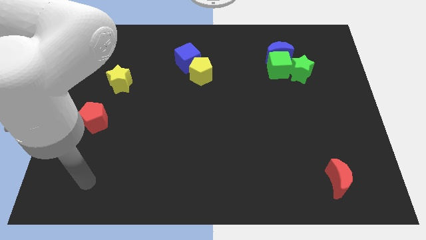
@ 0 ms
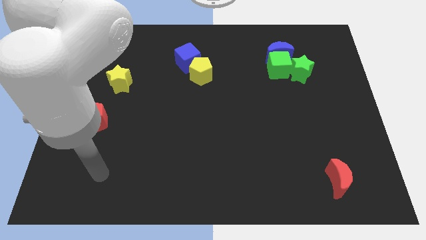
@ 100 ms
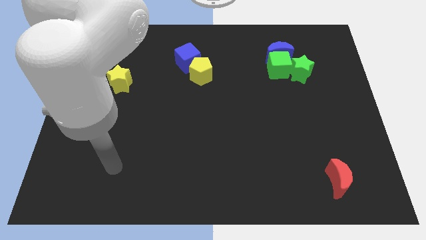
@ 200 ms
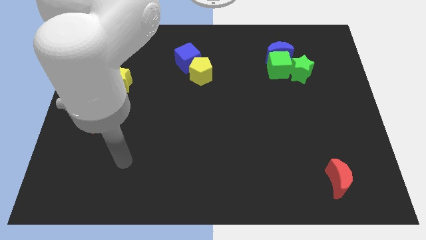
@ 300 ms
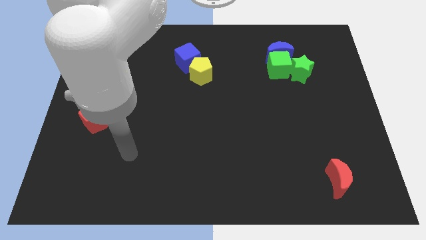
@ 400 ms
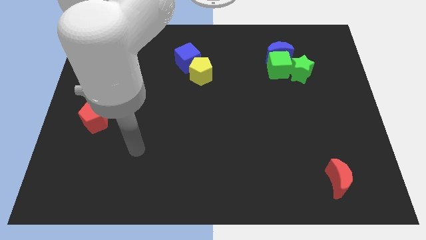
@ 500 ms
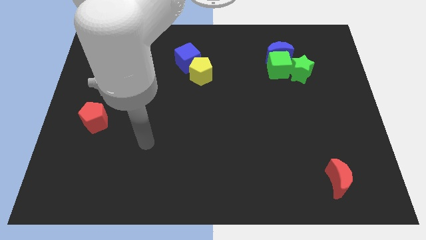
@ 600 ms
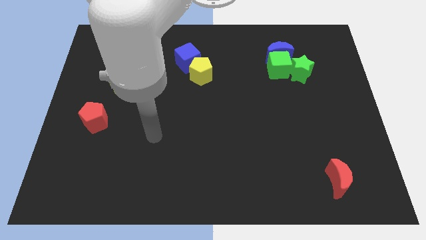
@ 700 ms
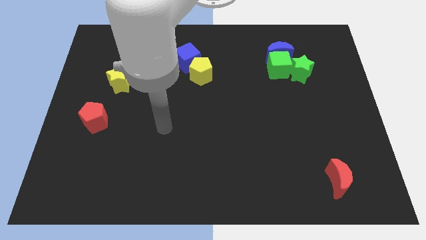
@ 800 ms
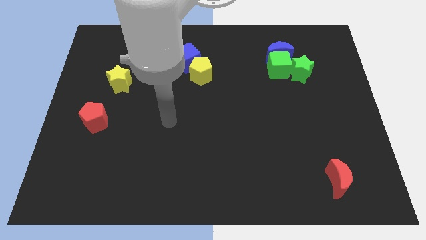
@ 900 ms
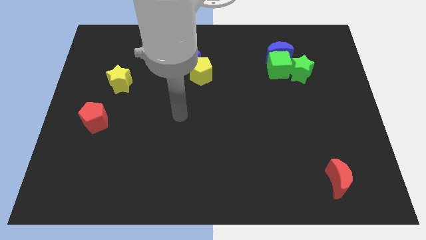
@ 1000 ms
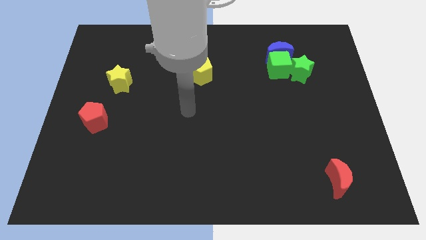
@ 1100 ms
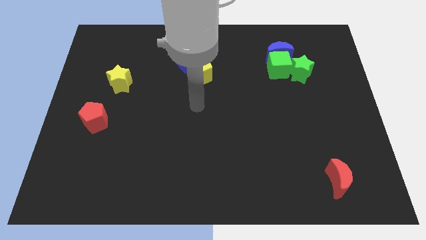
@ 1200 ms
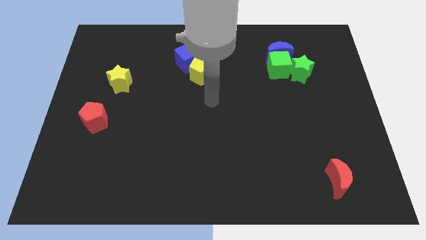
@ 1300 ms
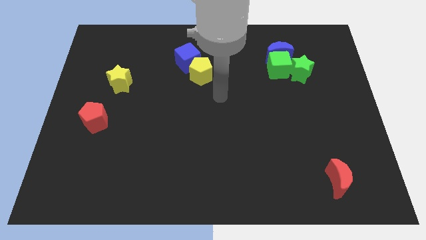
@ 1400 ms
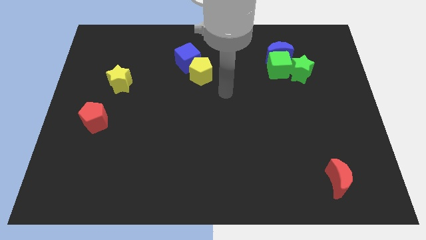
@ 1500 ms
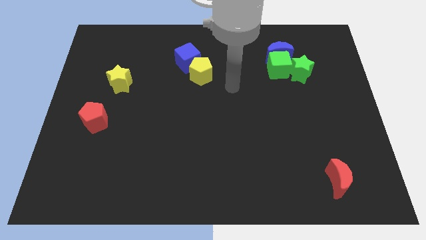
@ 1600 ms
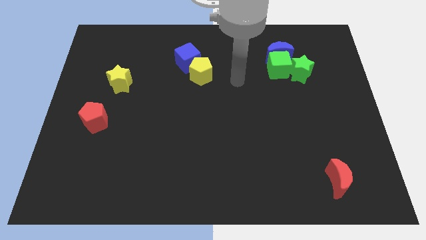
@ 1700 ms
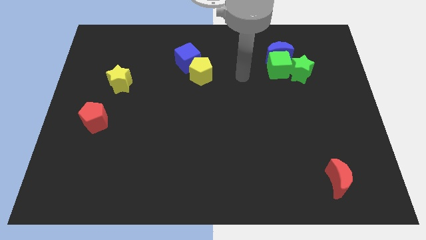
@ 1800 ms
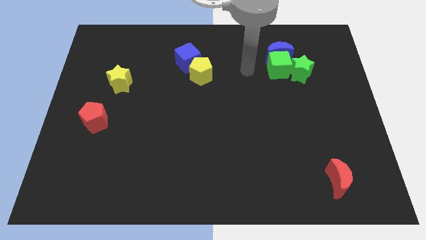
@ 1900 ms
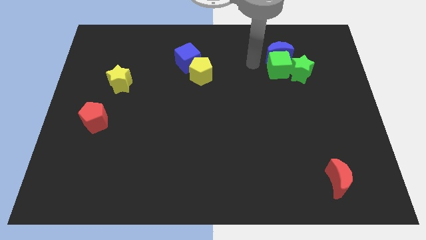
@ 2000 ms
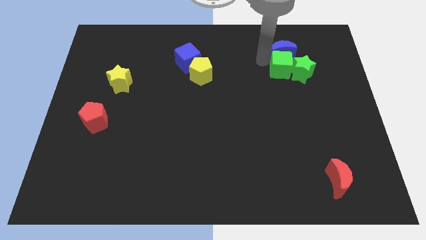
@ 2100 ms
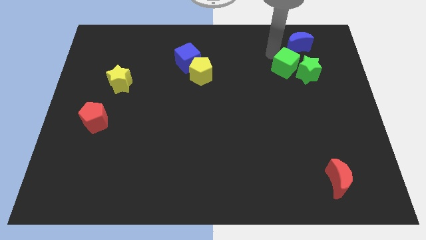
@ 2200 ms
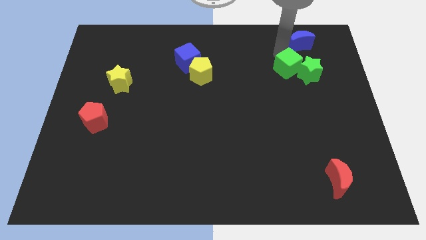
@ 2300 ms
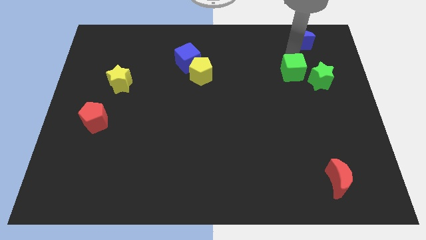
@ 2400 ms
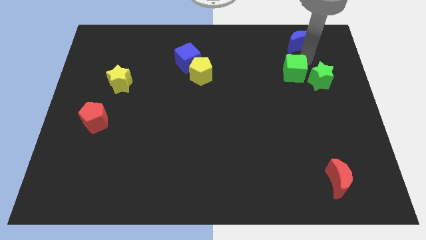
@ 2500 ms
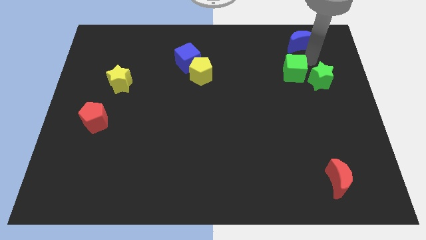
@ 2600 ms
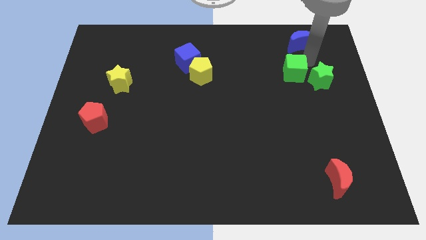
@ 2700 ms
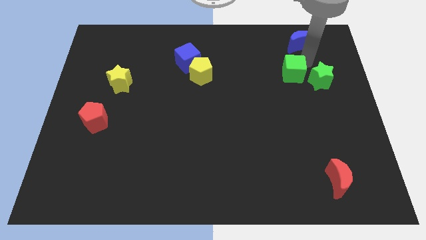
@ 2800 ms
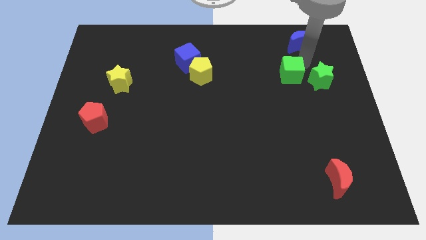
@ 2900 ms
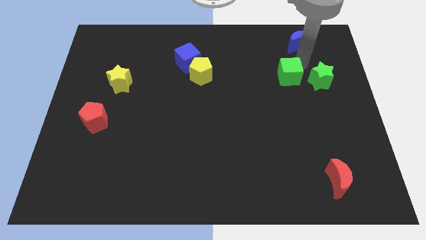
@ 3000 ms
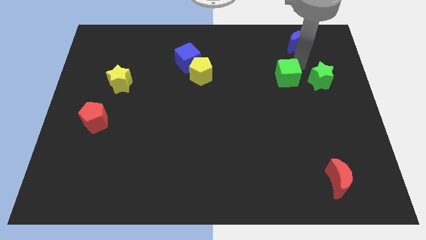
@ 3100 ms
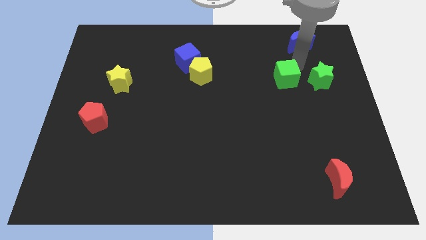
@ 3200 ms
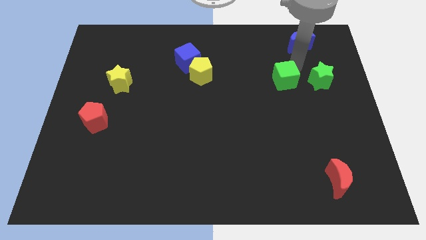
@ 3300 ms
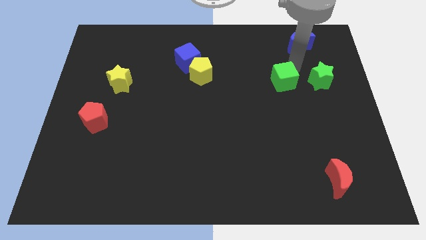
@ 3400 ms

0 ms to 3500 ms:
pull the green cube apart from the blue moon and green star

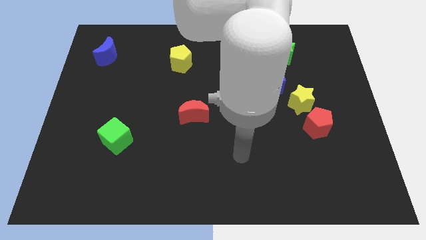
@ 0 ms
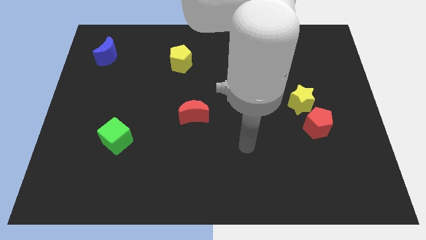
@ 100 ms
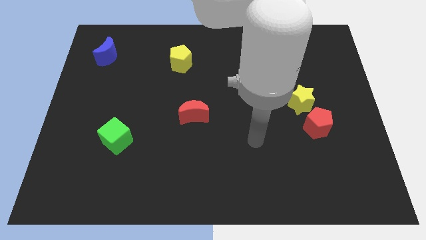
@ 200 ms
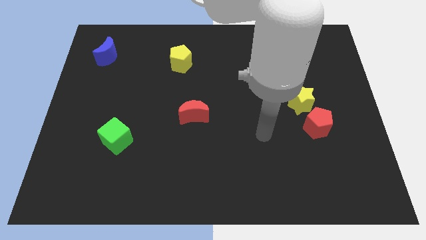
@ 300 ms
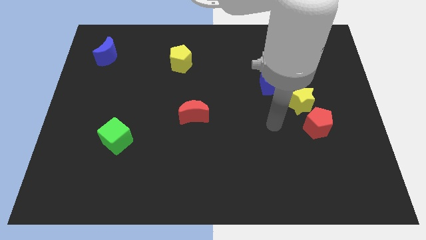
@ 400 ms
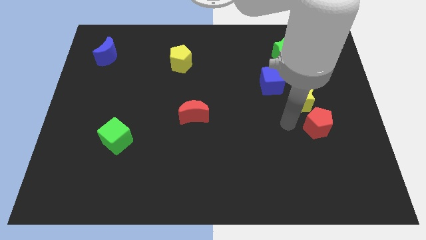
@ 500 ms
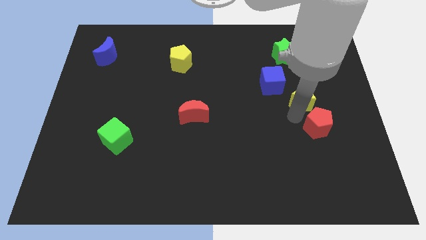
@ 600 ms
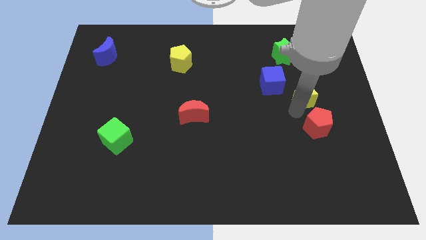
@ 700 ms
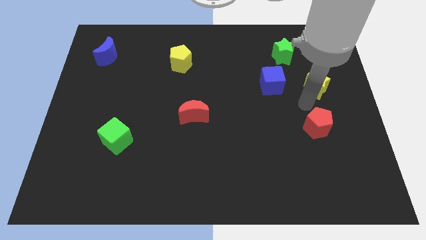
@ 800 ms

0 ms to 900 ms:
move the red pentagon away from the yellow star

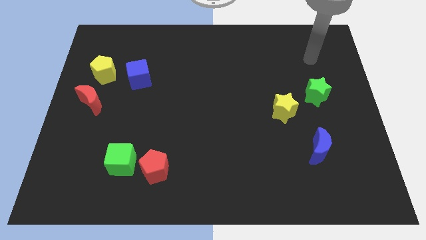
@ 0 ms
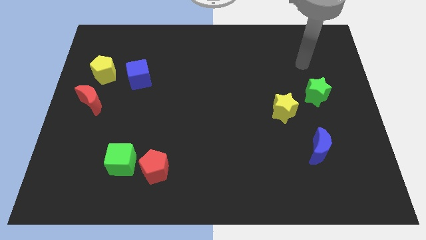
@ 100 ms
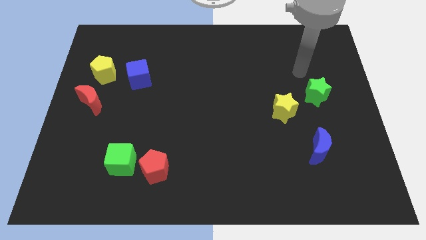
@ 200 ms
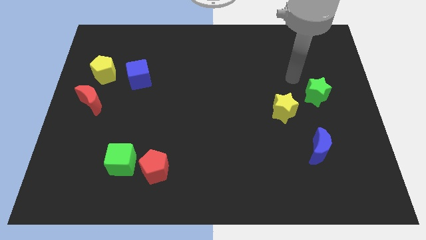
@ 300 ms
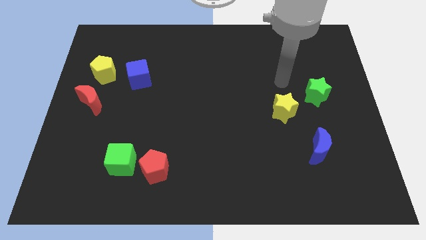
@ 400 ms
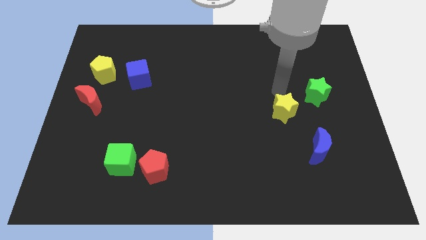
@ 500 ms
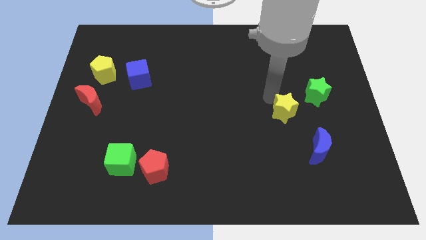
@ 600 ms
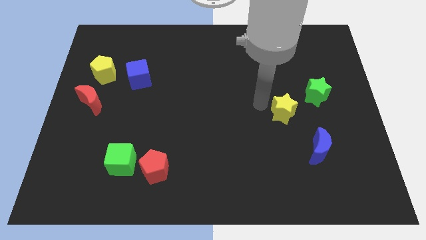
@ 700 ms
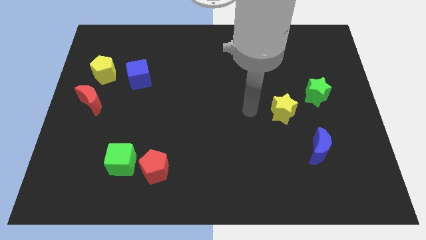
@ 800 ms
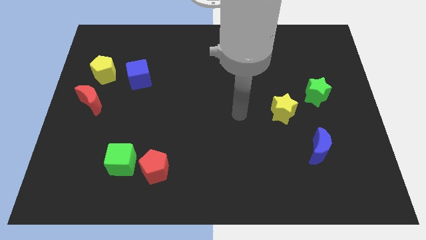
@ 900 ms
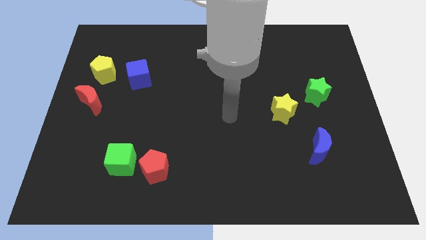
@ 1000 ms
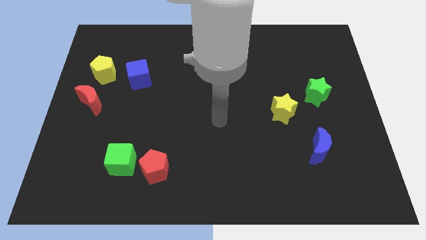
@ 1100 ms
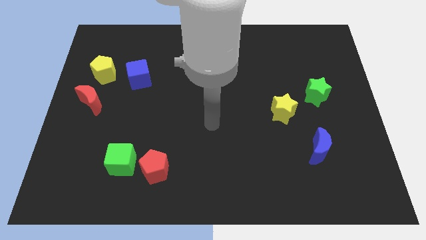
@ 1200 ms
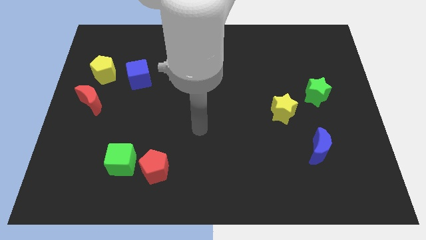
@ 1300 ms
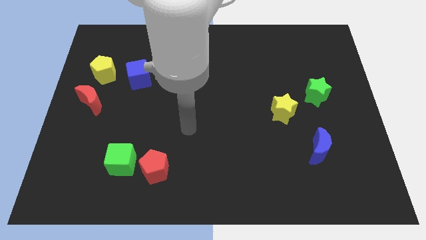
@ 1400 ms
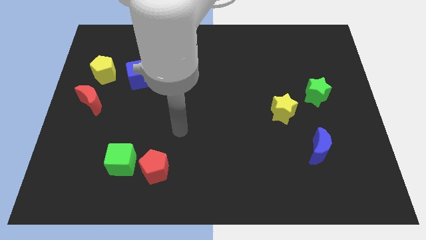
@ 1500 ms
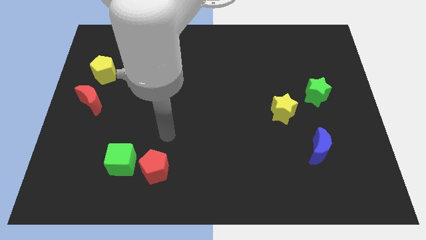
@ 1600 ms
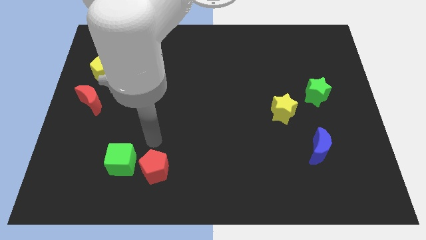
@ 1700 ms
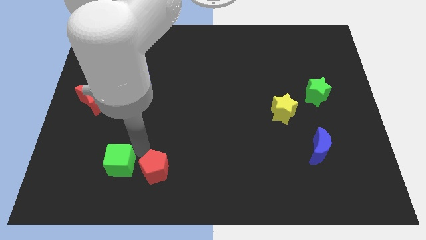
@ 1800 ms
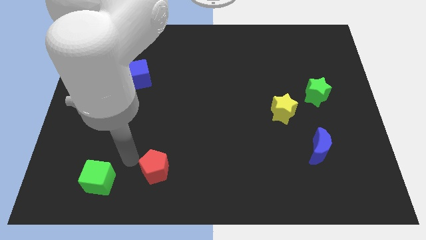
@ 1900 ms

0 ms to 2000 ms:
move the red pentagon away from the green cube

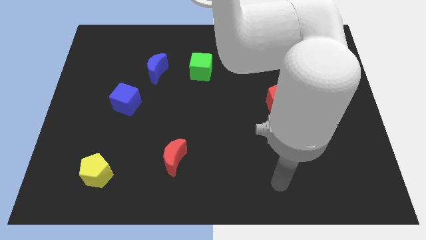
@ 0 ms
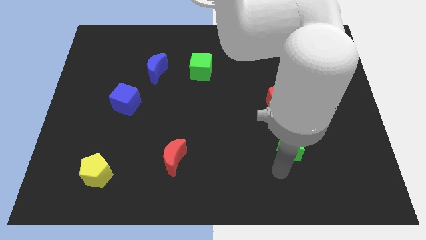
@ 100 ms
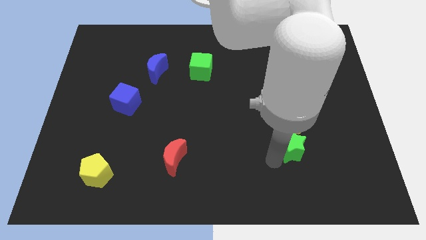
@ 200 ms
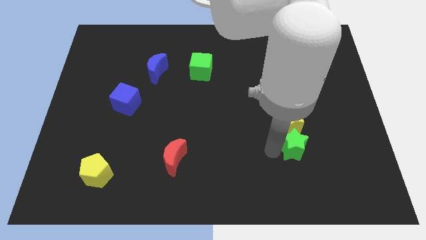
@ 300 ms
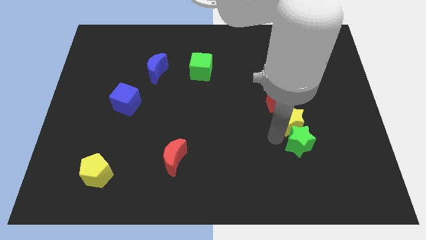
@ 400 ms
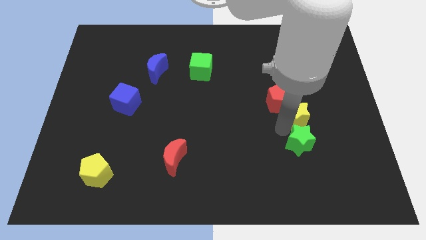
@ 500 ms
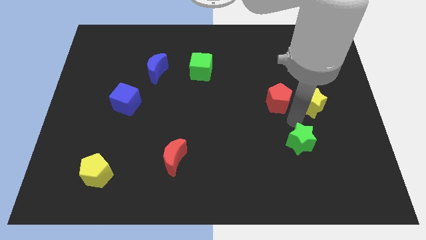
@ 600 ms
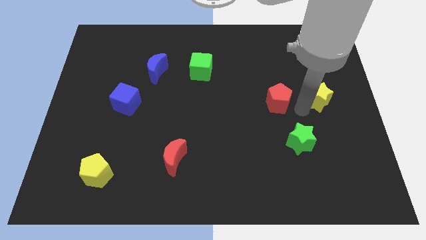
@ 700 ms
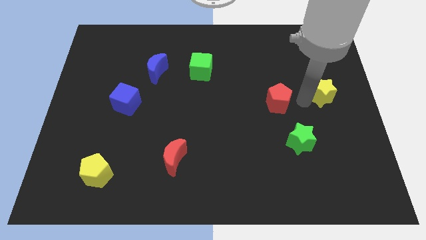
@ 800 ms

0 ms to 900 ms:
separate the red pentagon from the yellow star

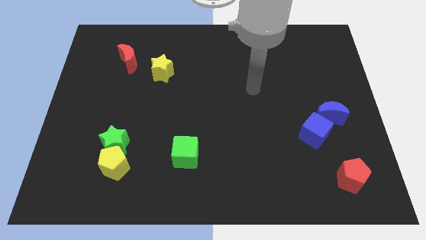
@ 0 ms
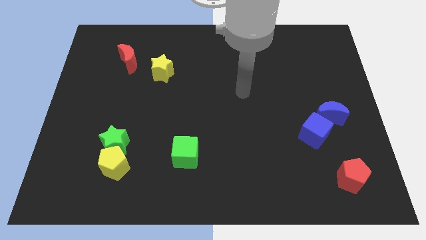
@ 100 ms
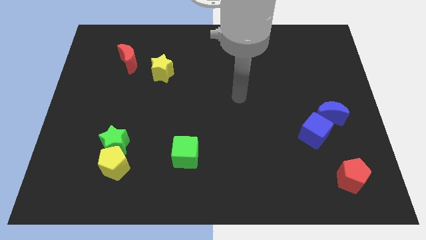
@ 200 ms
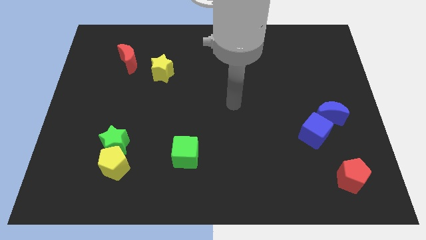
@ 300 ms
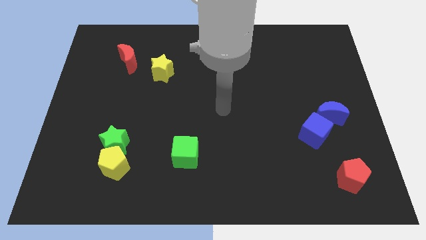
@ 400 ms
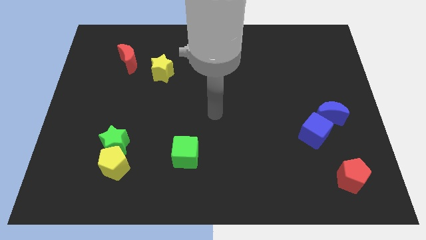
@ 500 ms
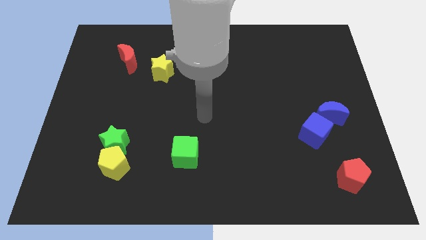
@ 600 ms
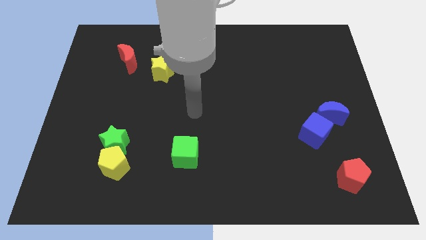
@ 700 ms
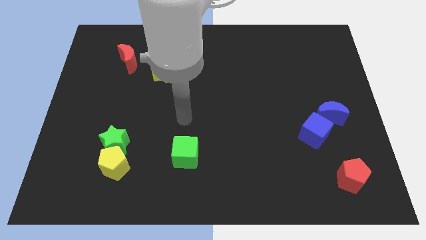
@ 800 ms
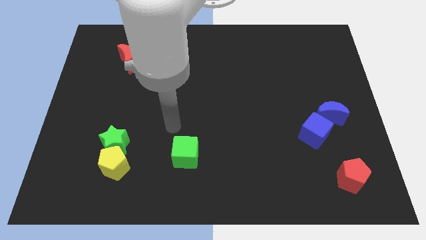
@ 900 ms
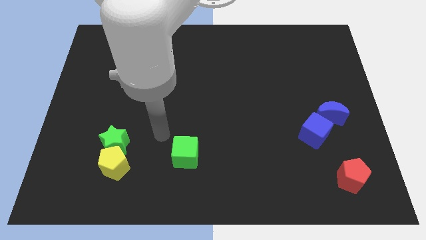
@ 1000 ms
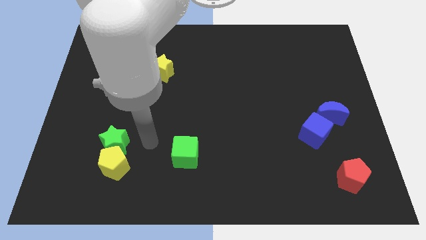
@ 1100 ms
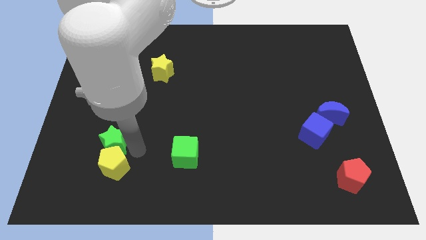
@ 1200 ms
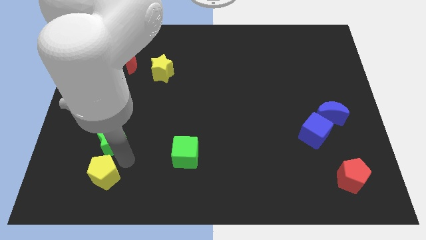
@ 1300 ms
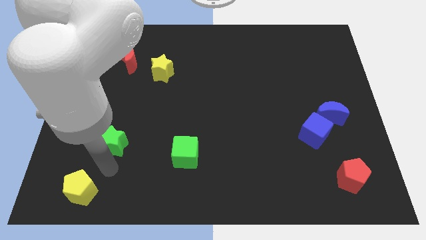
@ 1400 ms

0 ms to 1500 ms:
pull the green star apart from the yellow pentagon

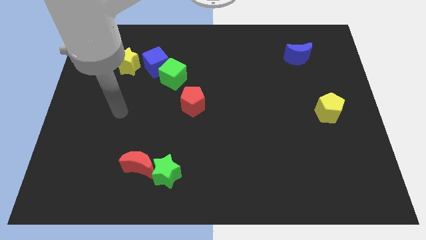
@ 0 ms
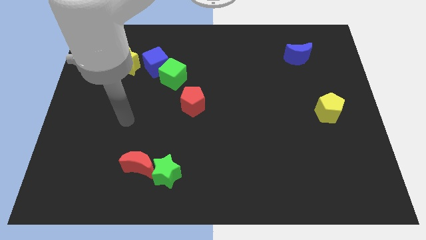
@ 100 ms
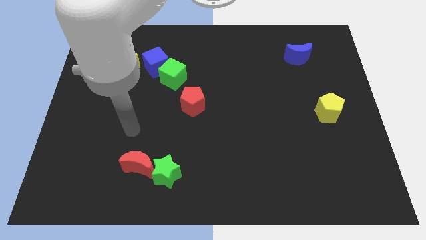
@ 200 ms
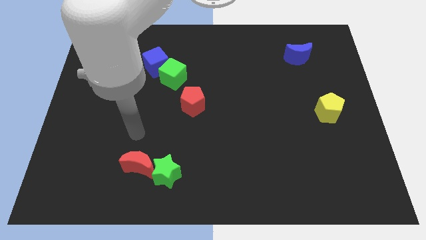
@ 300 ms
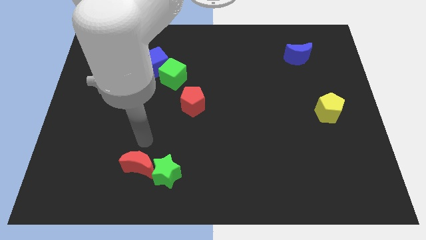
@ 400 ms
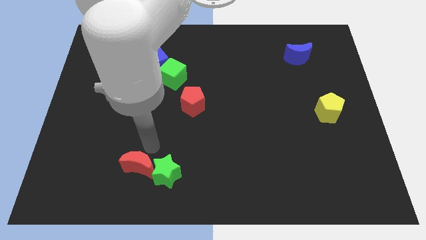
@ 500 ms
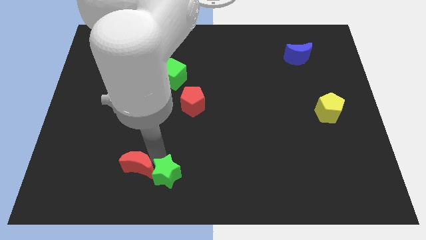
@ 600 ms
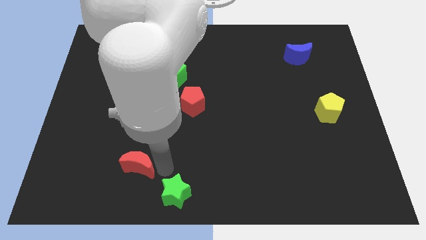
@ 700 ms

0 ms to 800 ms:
separate the red moon from the green star
